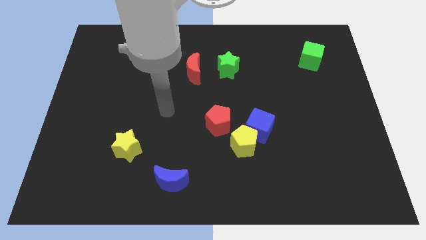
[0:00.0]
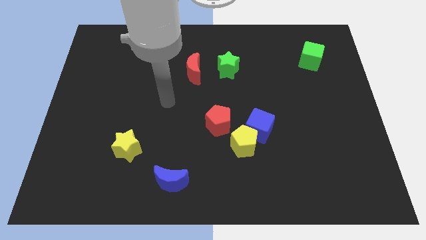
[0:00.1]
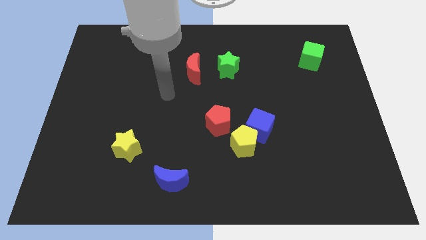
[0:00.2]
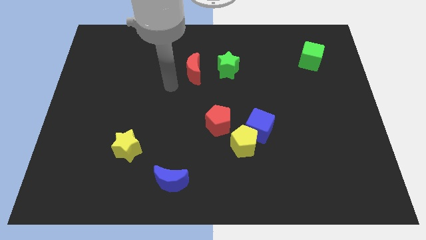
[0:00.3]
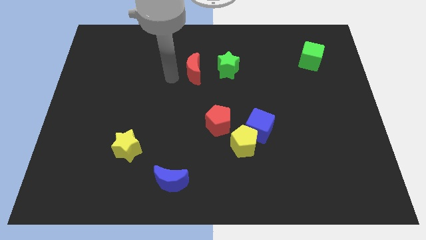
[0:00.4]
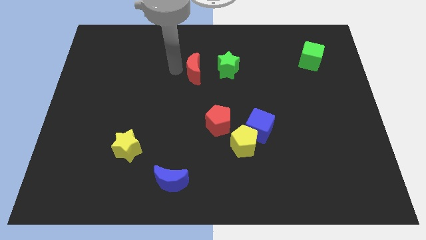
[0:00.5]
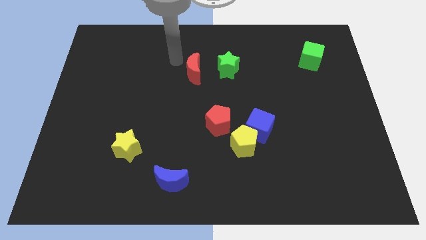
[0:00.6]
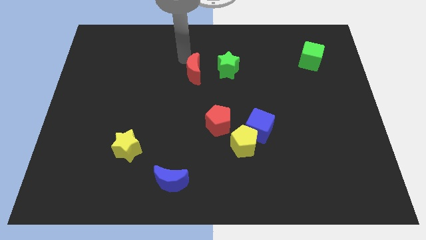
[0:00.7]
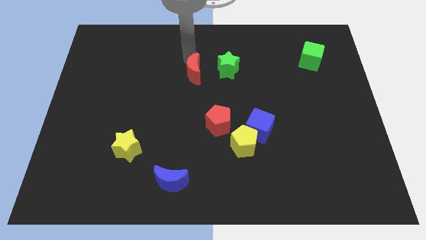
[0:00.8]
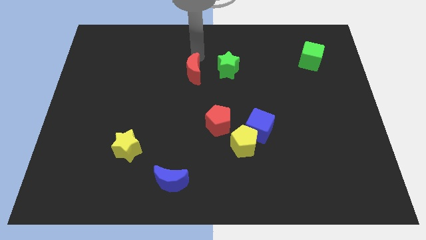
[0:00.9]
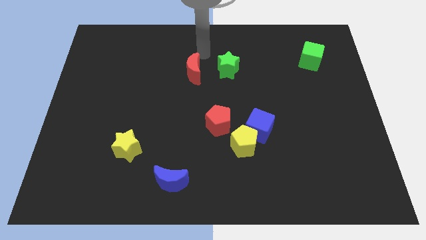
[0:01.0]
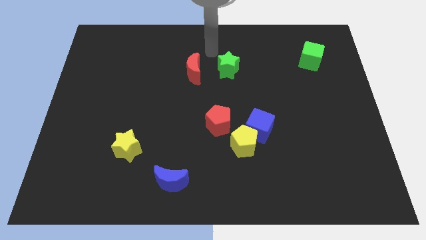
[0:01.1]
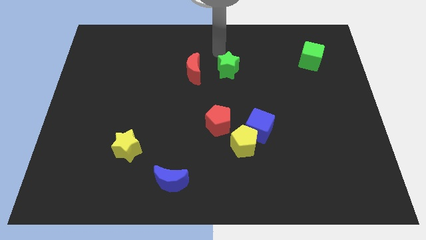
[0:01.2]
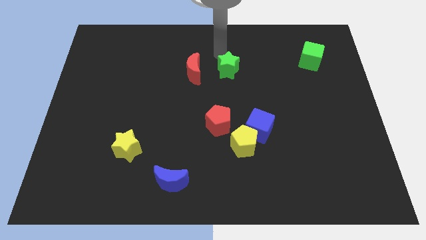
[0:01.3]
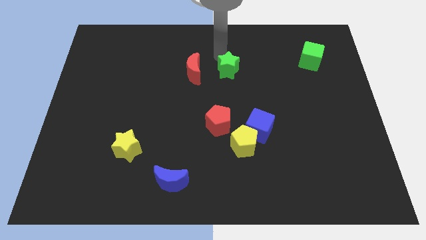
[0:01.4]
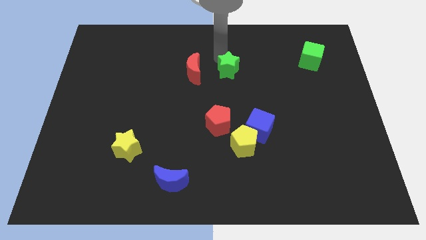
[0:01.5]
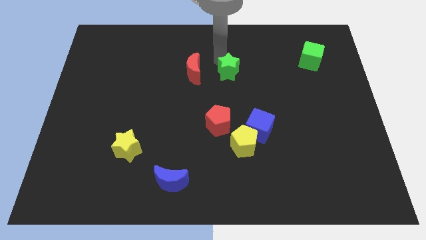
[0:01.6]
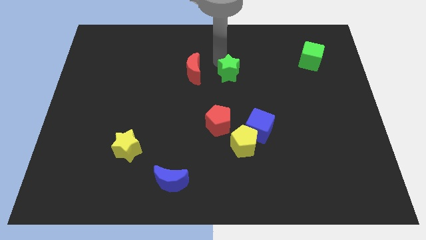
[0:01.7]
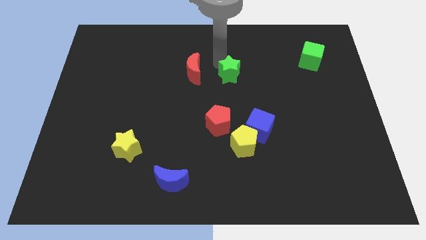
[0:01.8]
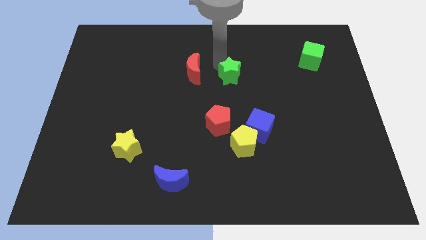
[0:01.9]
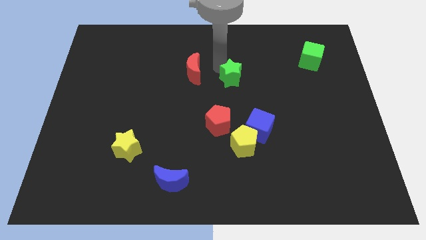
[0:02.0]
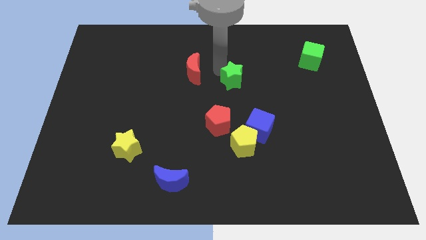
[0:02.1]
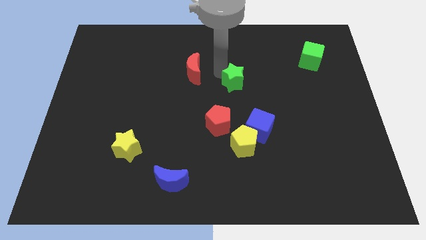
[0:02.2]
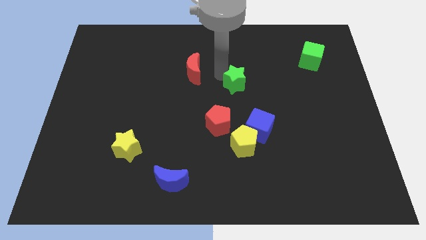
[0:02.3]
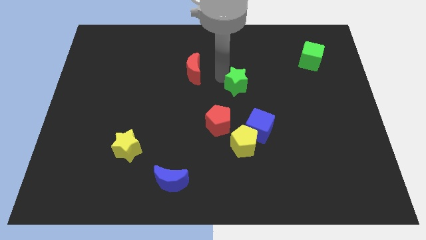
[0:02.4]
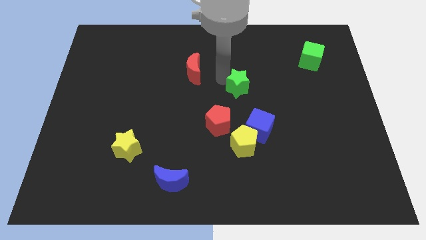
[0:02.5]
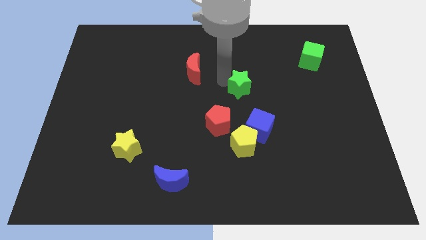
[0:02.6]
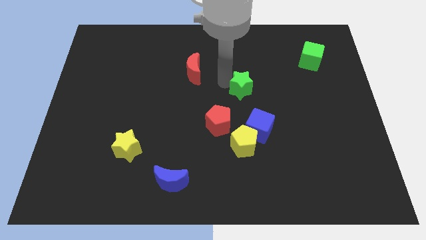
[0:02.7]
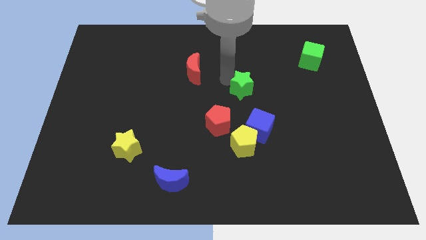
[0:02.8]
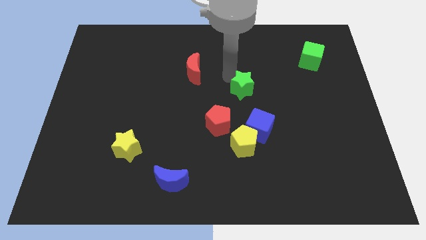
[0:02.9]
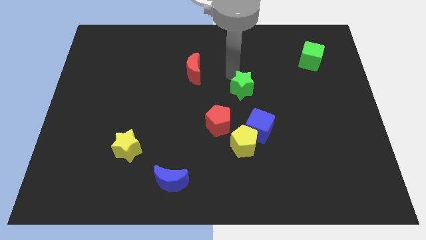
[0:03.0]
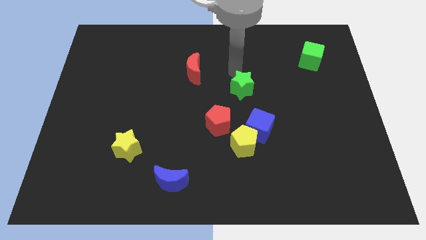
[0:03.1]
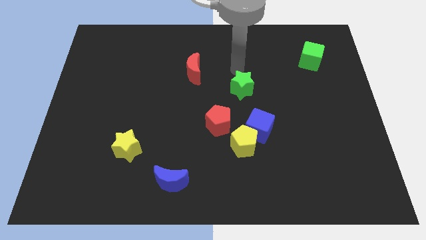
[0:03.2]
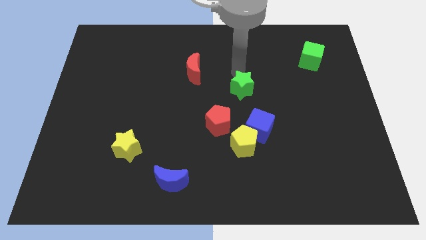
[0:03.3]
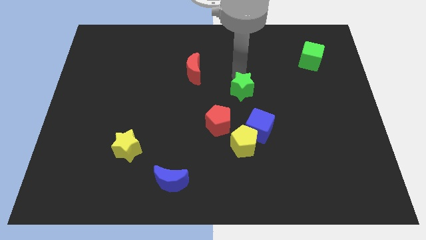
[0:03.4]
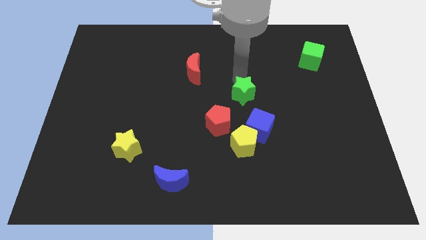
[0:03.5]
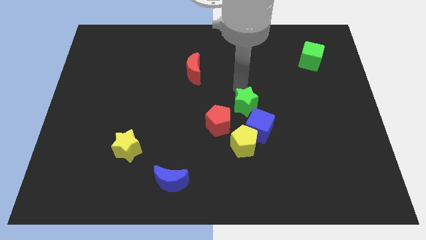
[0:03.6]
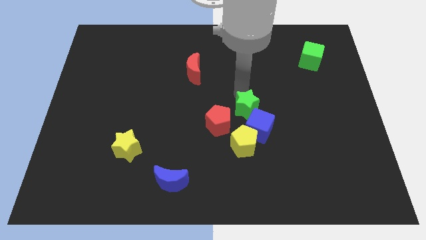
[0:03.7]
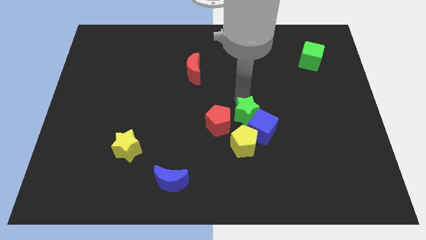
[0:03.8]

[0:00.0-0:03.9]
push the green star to the blue cube

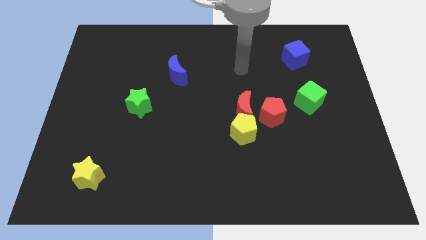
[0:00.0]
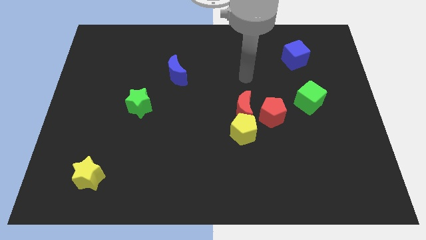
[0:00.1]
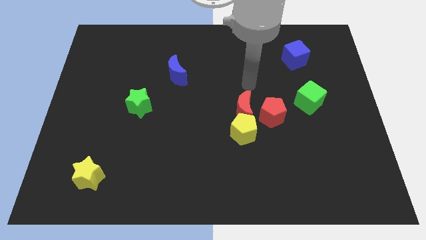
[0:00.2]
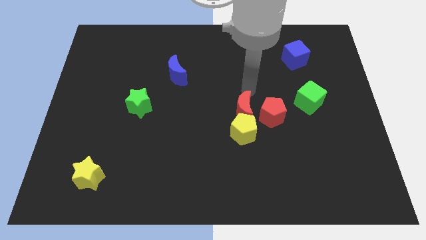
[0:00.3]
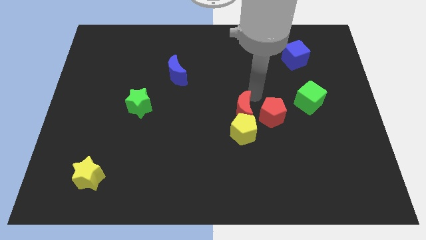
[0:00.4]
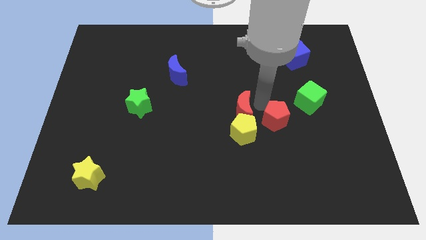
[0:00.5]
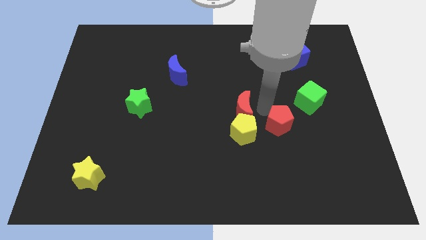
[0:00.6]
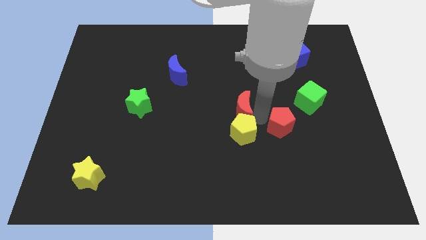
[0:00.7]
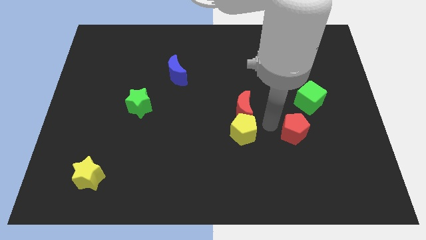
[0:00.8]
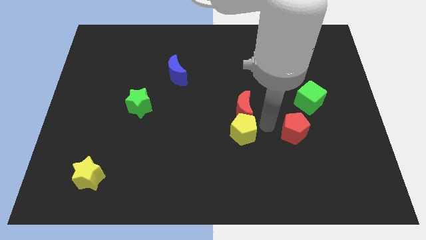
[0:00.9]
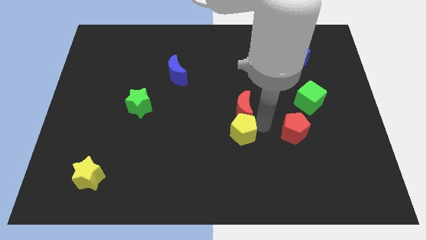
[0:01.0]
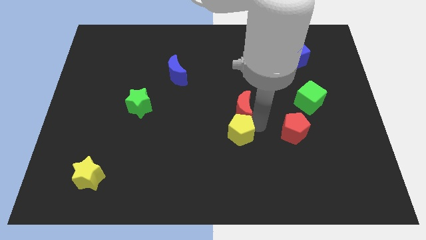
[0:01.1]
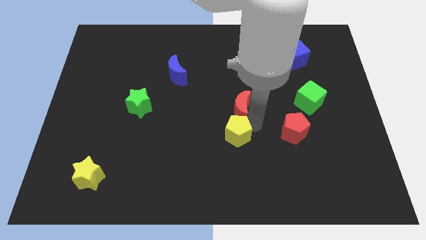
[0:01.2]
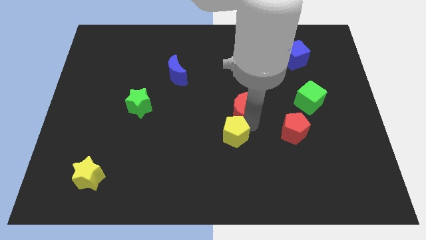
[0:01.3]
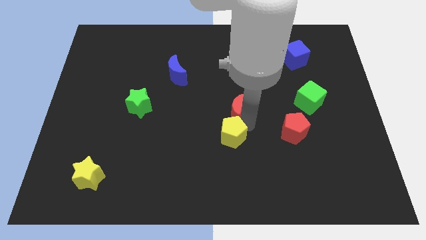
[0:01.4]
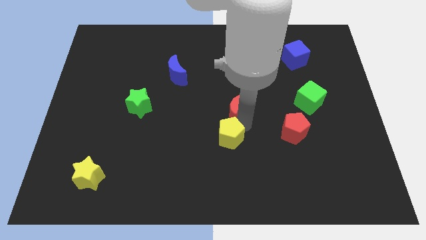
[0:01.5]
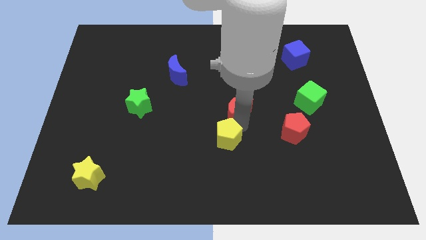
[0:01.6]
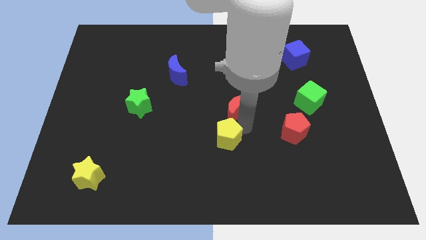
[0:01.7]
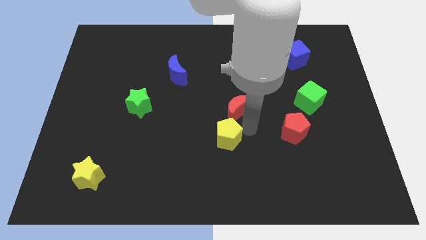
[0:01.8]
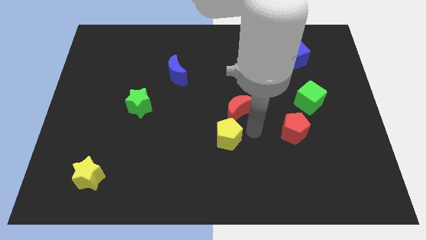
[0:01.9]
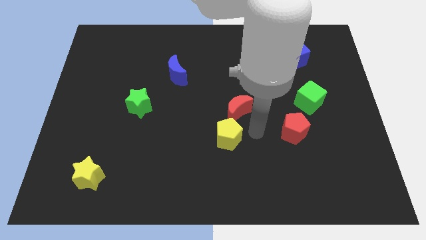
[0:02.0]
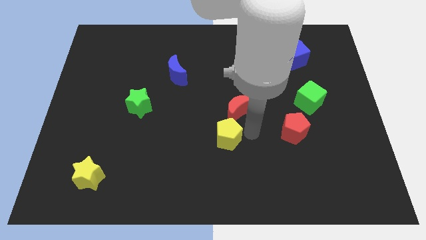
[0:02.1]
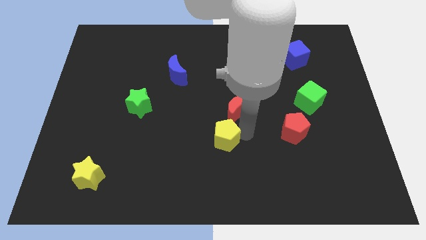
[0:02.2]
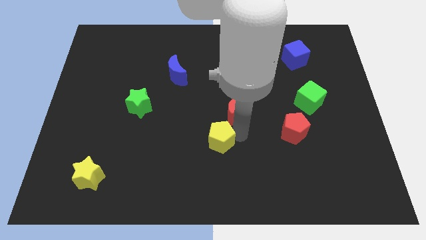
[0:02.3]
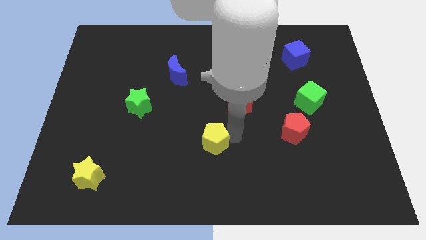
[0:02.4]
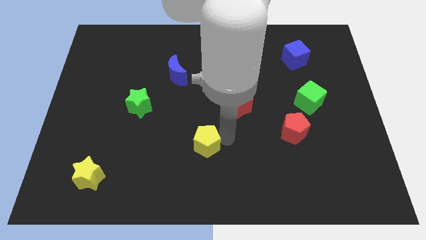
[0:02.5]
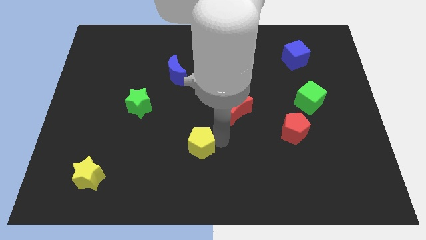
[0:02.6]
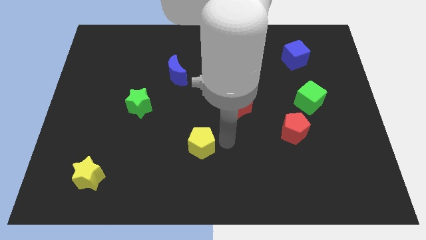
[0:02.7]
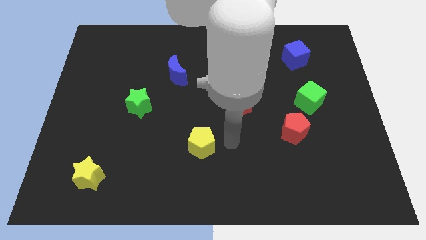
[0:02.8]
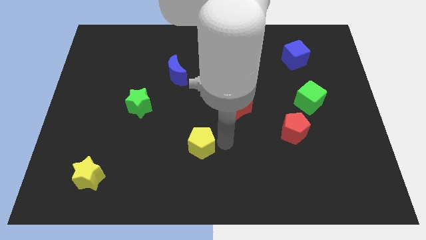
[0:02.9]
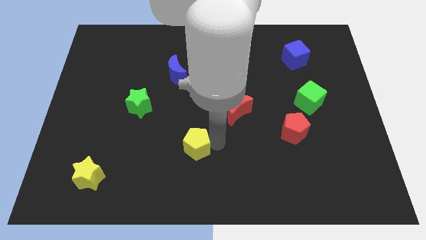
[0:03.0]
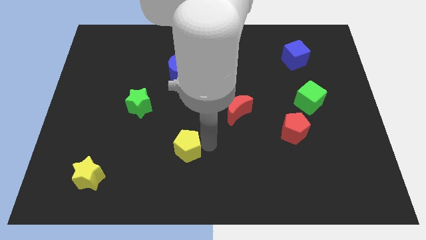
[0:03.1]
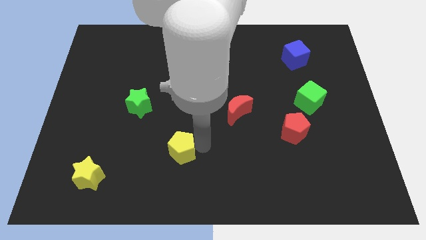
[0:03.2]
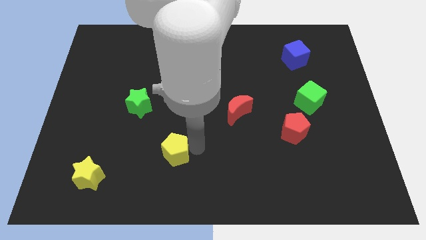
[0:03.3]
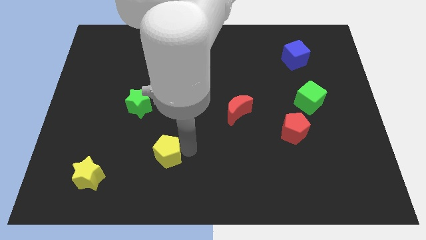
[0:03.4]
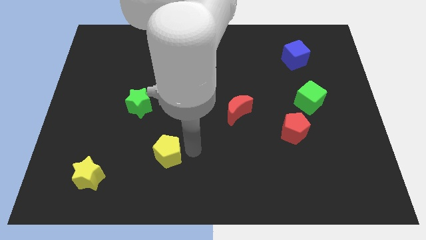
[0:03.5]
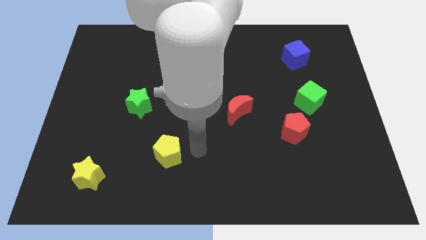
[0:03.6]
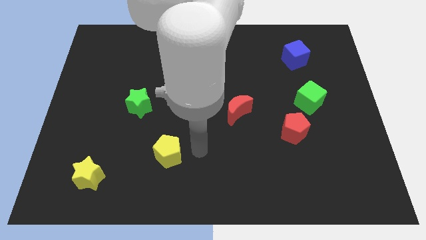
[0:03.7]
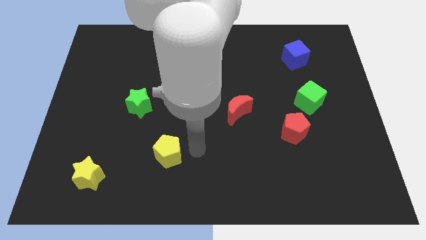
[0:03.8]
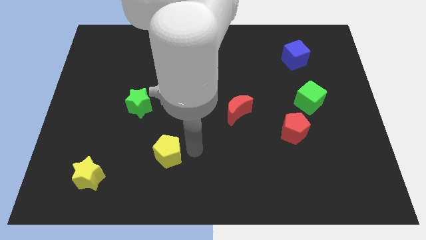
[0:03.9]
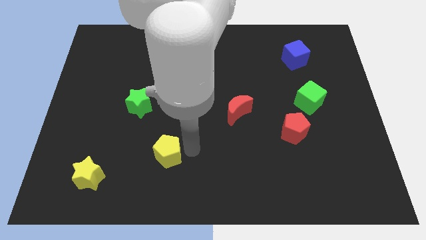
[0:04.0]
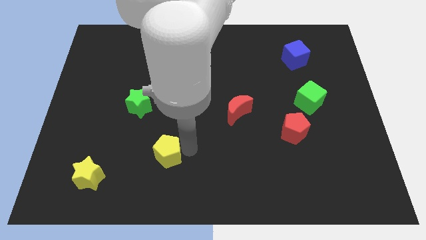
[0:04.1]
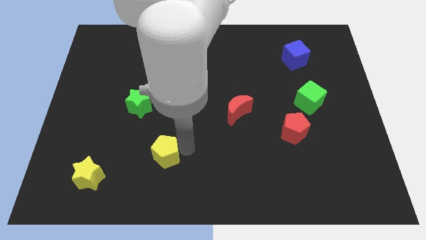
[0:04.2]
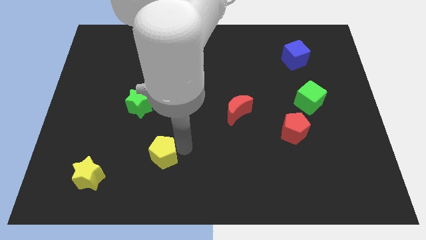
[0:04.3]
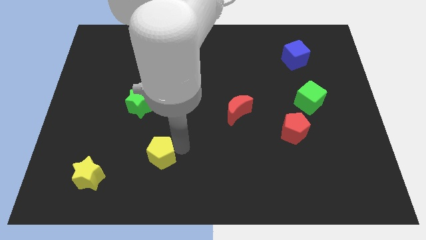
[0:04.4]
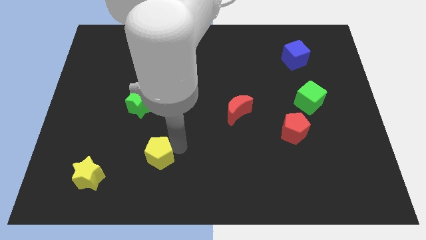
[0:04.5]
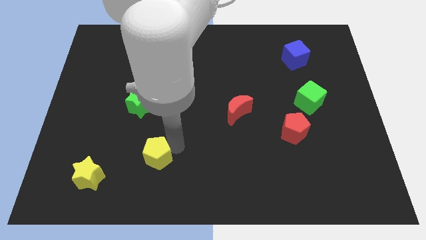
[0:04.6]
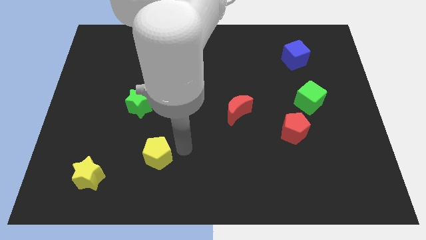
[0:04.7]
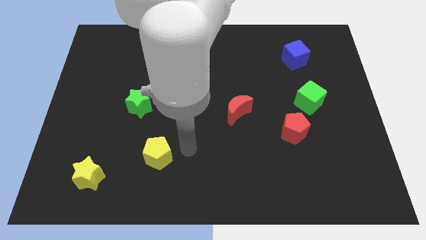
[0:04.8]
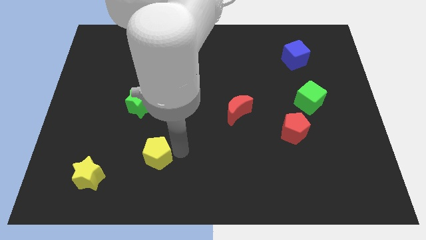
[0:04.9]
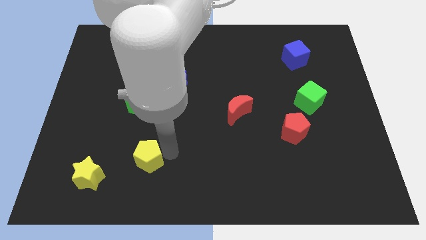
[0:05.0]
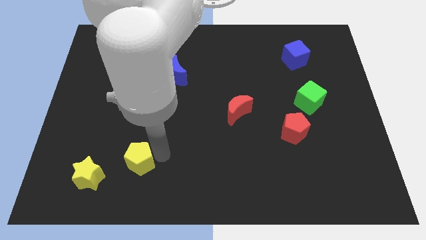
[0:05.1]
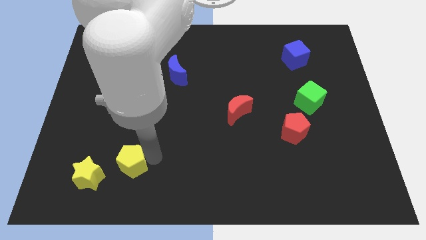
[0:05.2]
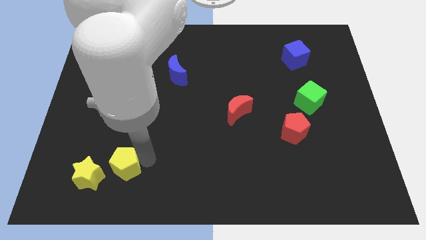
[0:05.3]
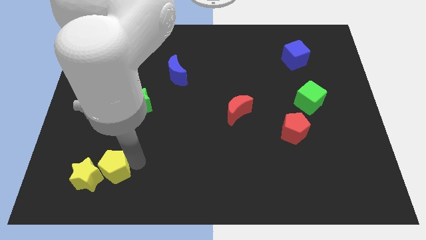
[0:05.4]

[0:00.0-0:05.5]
move the yellow pentagon to the yellow star
